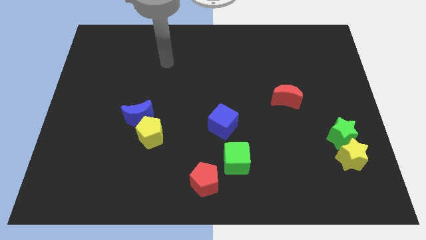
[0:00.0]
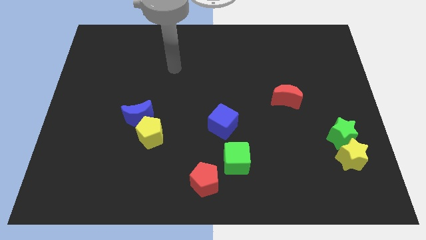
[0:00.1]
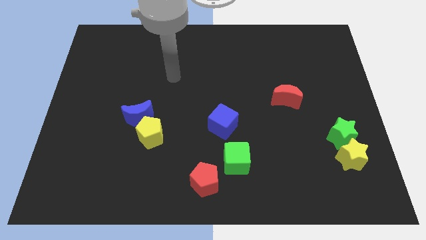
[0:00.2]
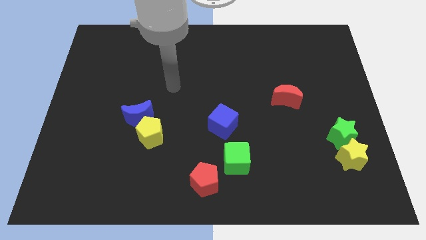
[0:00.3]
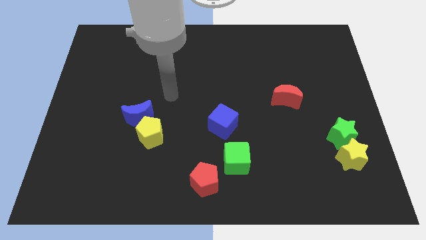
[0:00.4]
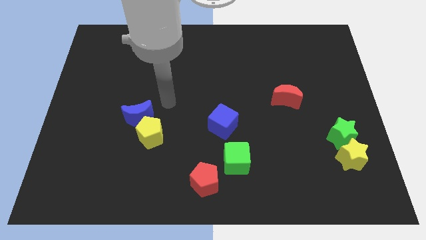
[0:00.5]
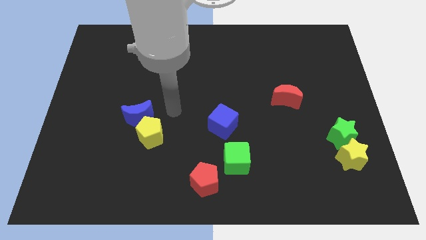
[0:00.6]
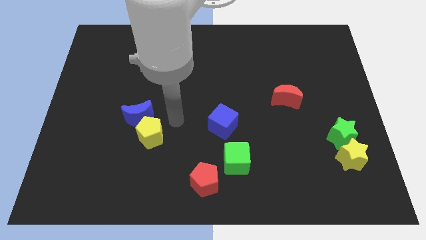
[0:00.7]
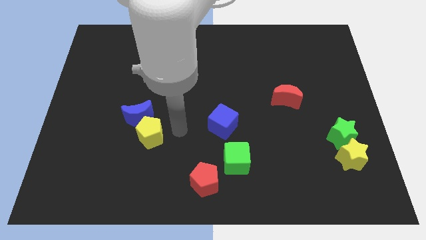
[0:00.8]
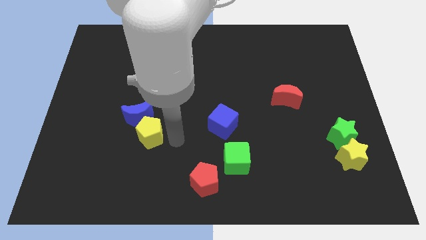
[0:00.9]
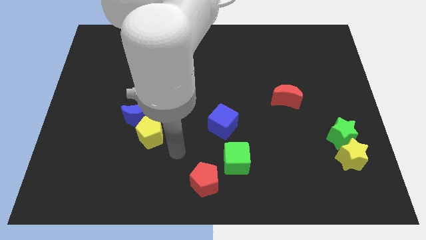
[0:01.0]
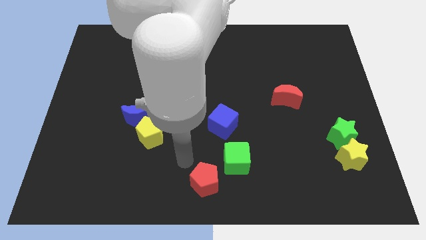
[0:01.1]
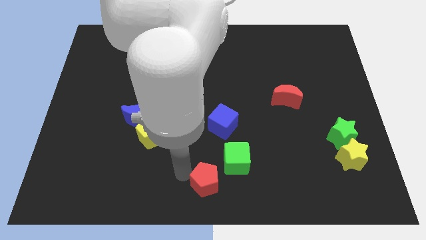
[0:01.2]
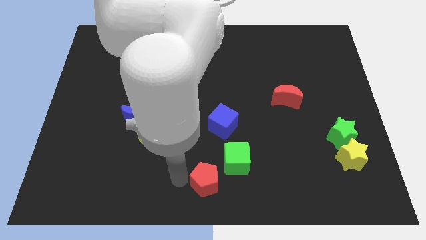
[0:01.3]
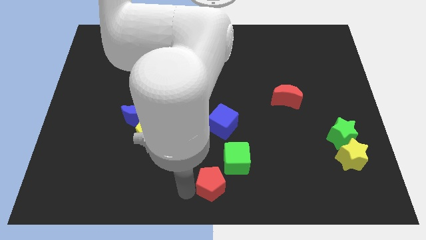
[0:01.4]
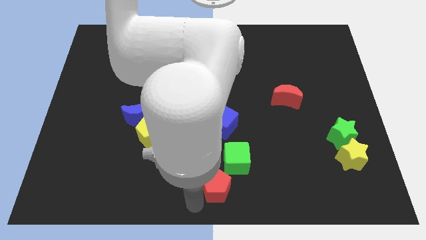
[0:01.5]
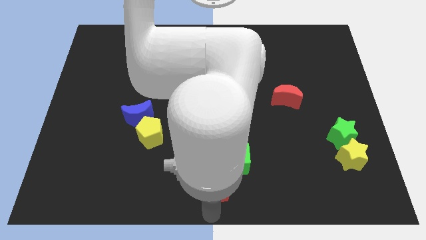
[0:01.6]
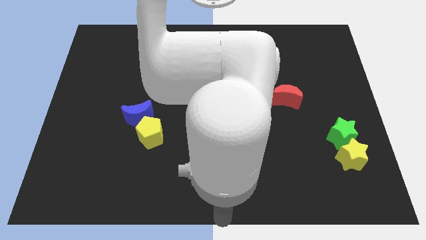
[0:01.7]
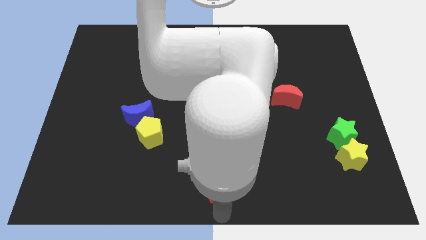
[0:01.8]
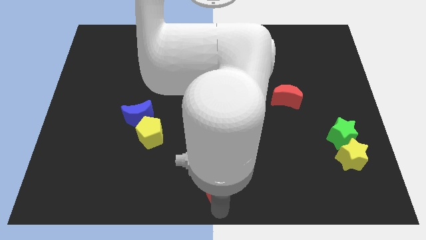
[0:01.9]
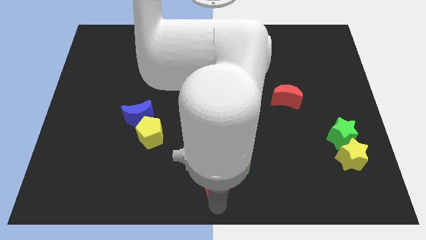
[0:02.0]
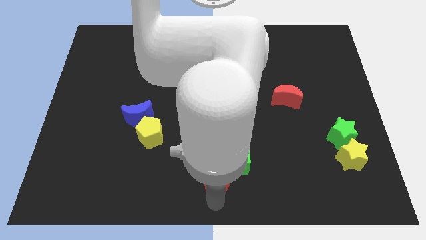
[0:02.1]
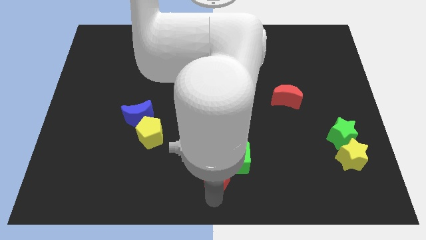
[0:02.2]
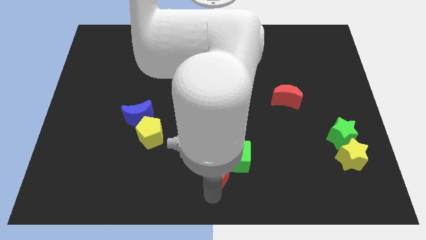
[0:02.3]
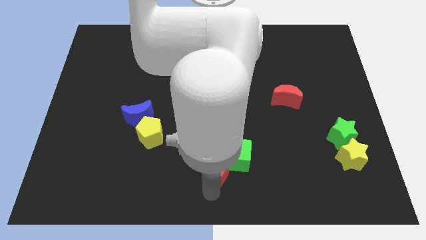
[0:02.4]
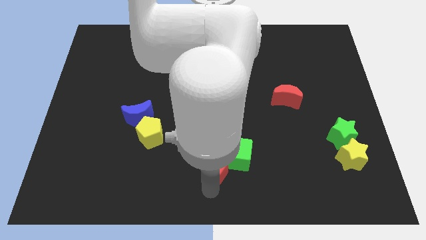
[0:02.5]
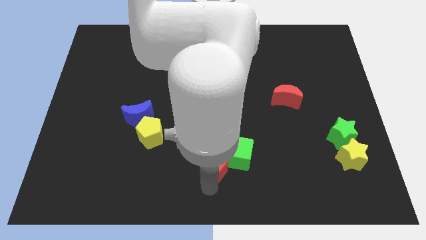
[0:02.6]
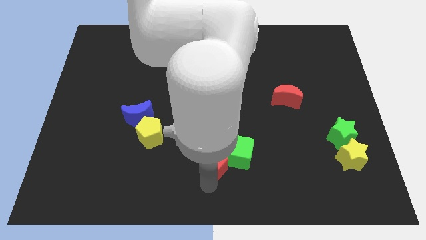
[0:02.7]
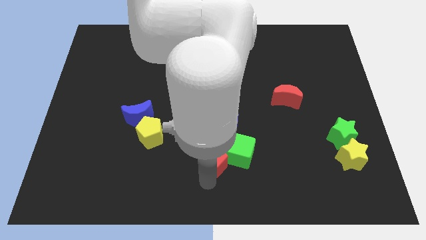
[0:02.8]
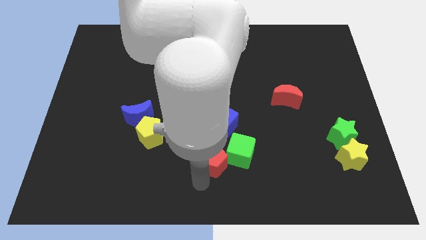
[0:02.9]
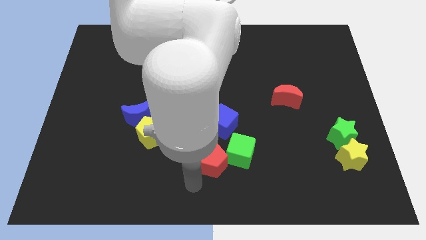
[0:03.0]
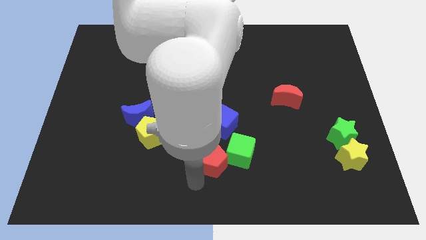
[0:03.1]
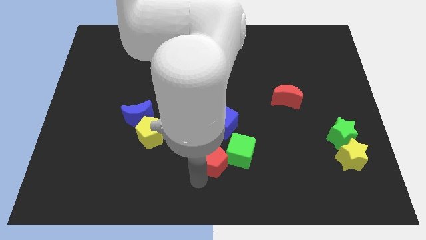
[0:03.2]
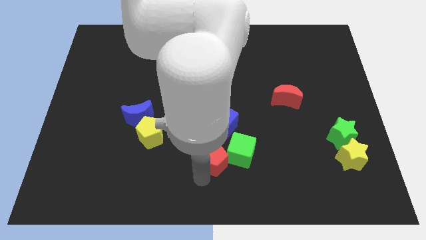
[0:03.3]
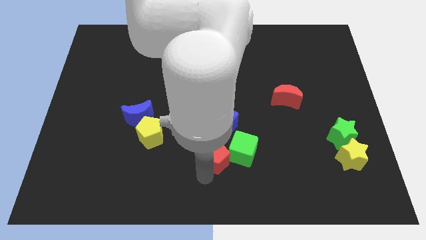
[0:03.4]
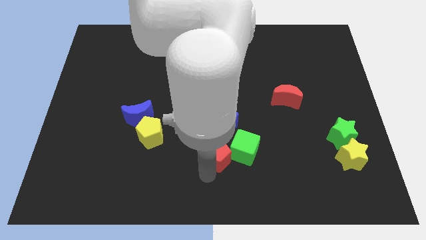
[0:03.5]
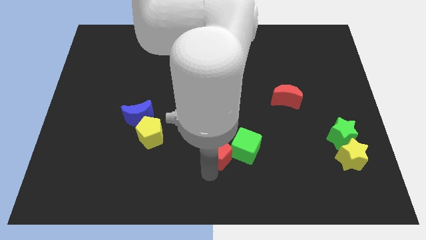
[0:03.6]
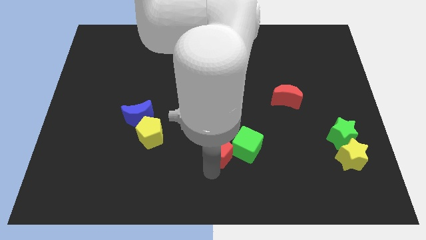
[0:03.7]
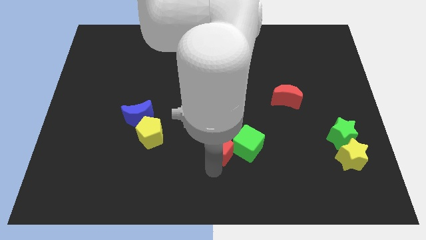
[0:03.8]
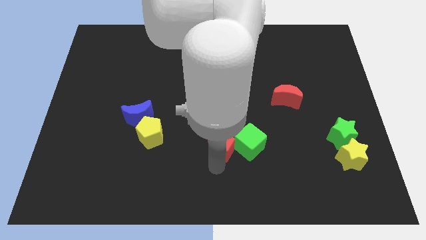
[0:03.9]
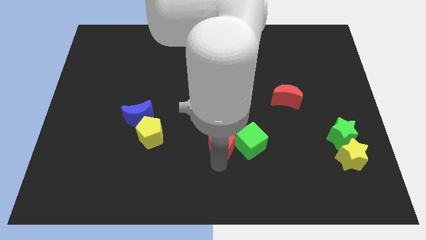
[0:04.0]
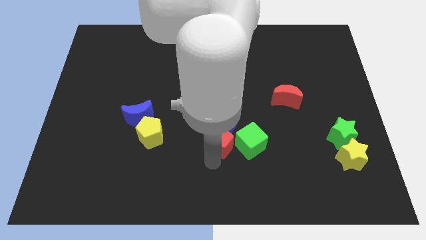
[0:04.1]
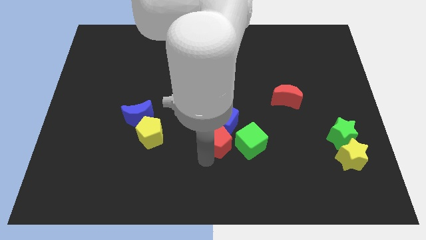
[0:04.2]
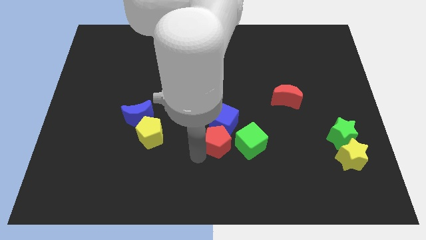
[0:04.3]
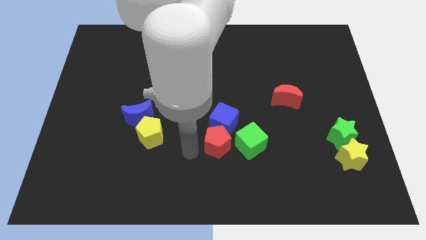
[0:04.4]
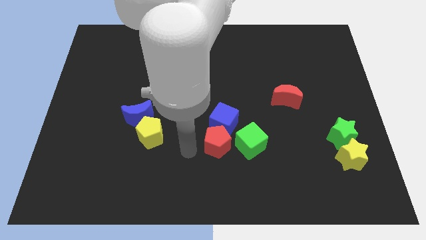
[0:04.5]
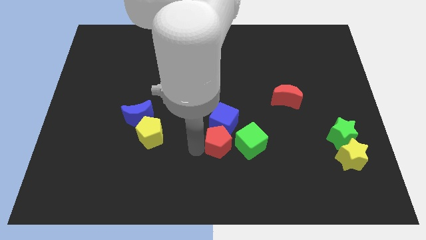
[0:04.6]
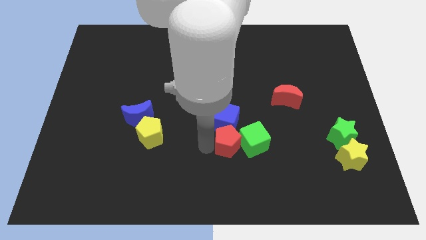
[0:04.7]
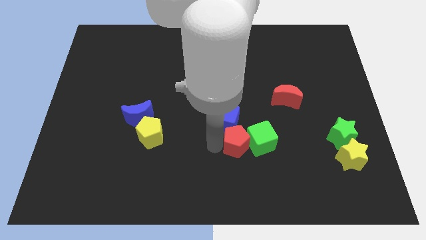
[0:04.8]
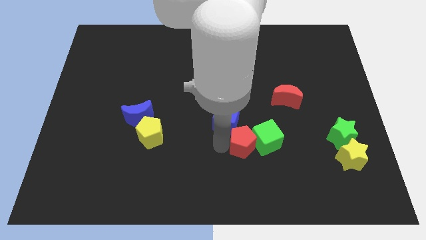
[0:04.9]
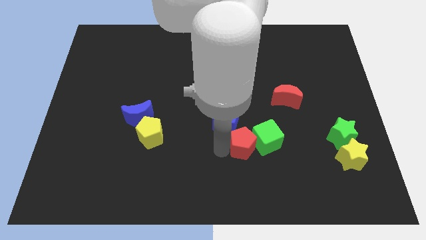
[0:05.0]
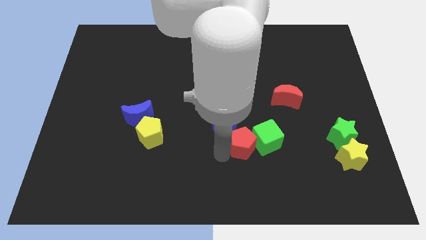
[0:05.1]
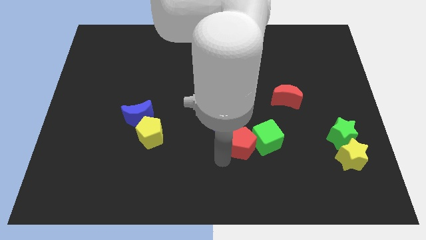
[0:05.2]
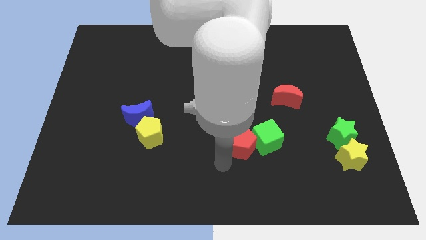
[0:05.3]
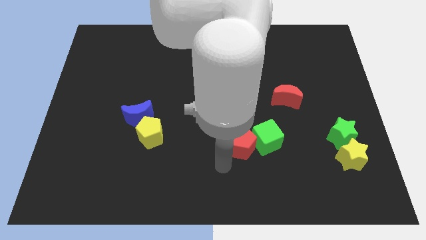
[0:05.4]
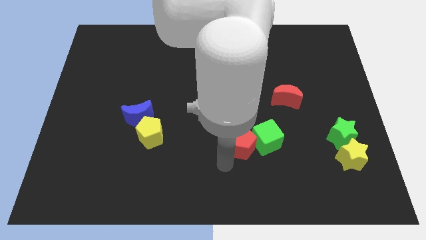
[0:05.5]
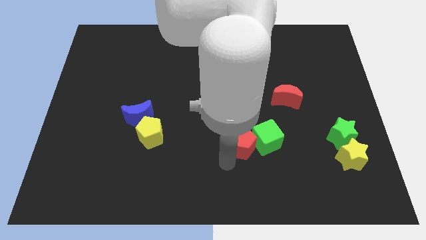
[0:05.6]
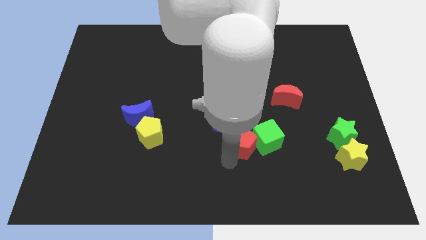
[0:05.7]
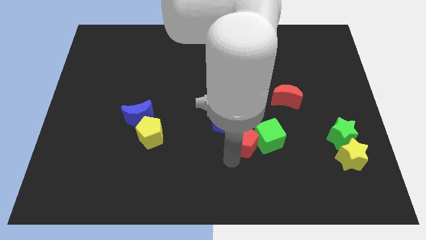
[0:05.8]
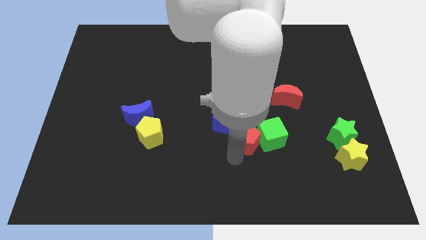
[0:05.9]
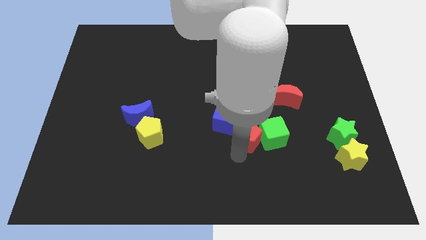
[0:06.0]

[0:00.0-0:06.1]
put the red pentagon to the right side of the blue cube

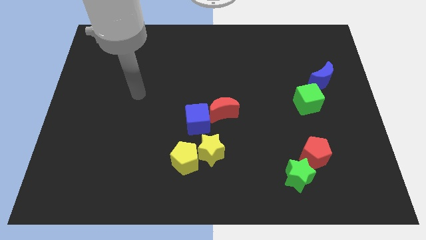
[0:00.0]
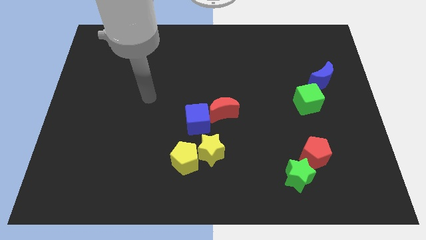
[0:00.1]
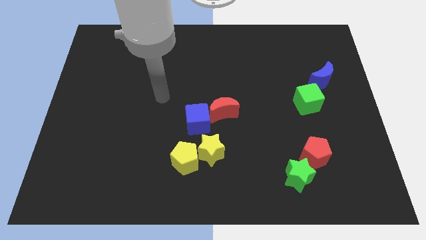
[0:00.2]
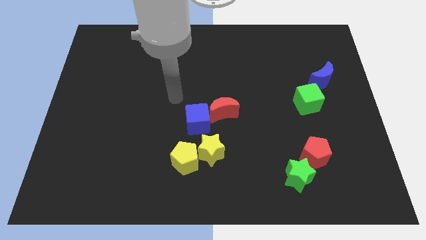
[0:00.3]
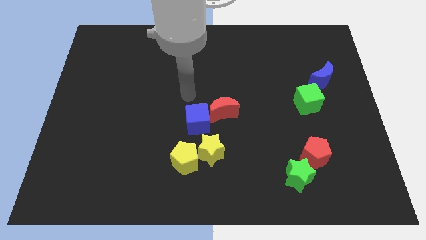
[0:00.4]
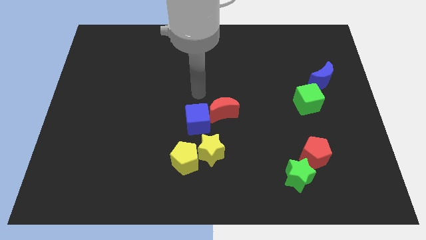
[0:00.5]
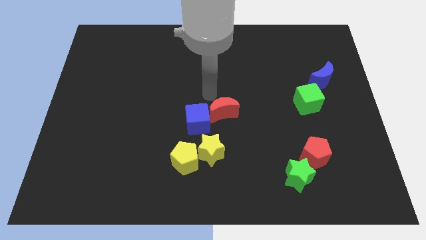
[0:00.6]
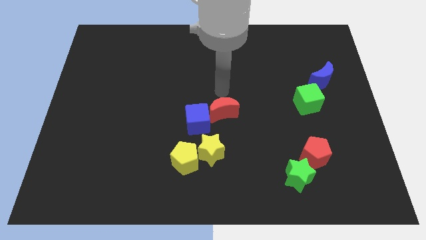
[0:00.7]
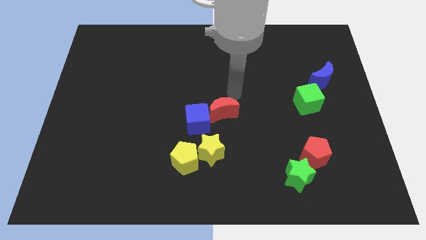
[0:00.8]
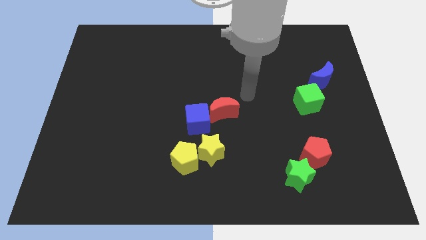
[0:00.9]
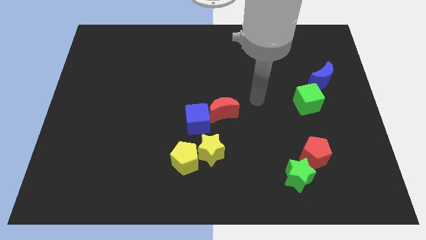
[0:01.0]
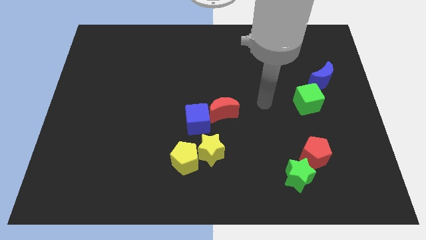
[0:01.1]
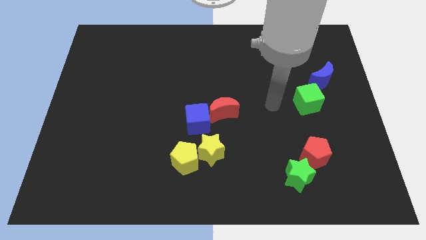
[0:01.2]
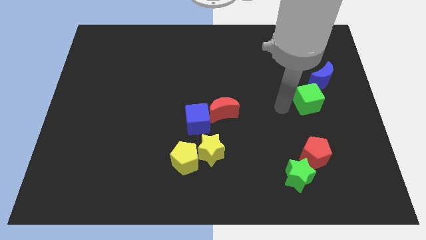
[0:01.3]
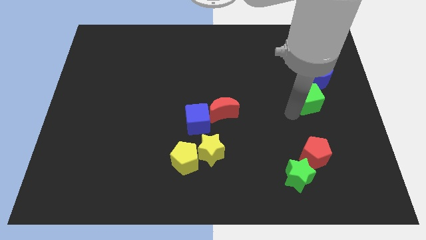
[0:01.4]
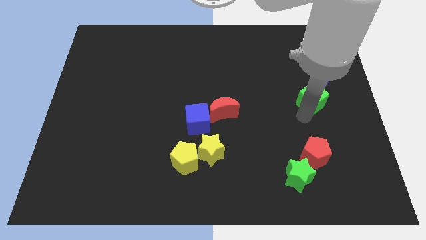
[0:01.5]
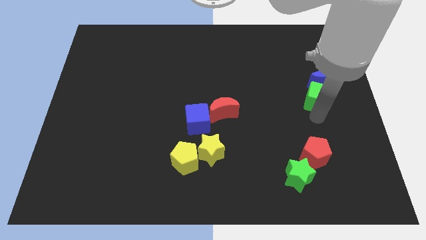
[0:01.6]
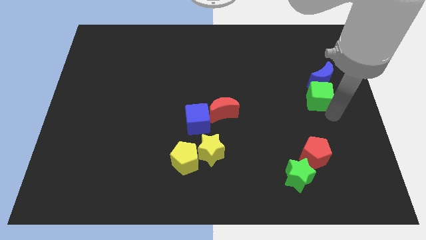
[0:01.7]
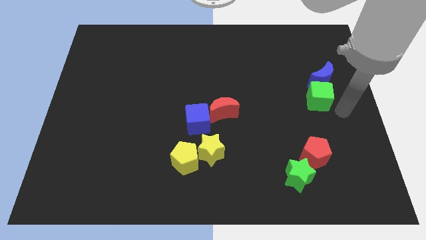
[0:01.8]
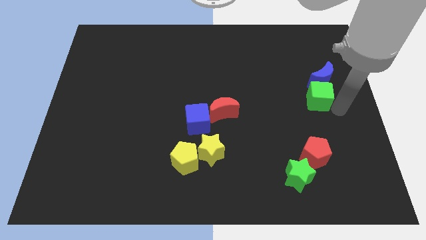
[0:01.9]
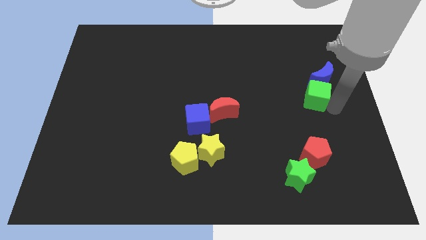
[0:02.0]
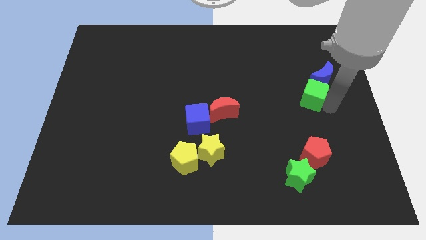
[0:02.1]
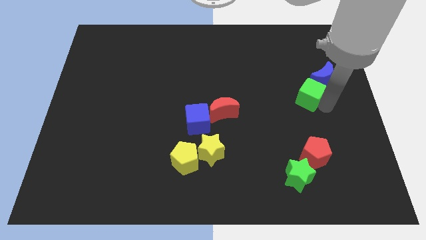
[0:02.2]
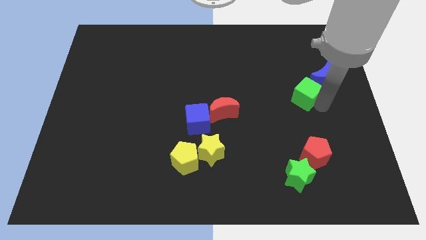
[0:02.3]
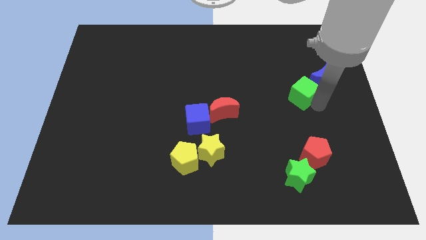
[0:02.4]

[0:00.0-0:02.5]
move the green cube to the left side of the blue moon
